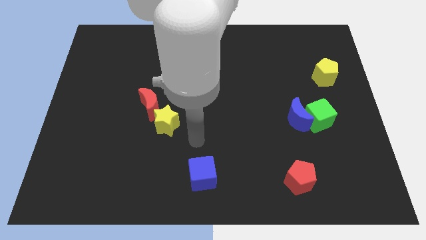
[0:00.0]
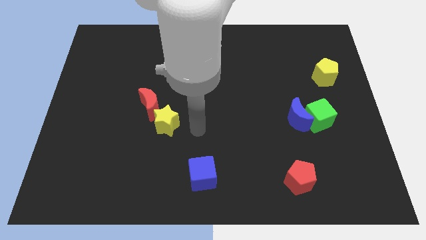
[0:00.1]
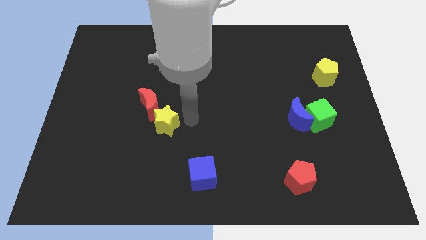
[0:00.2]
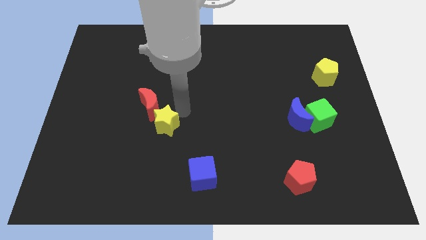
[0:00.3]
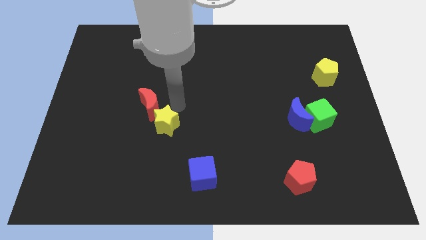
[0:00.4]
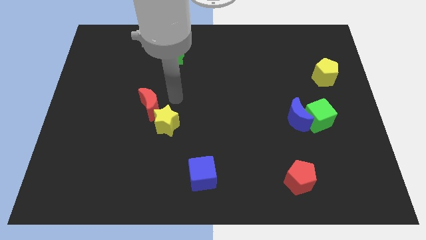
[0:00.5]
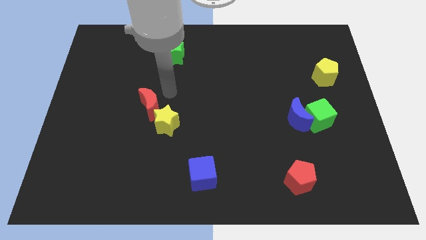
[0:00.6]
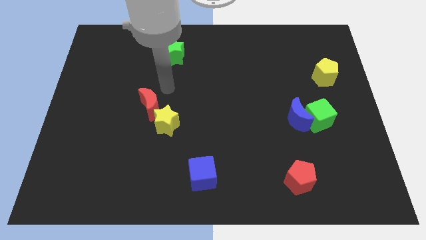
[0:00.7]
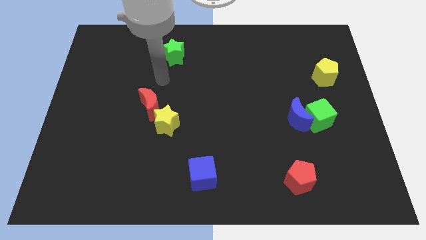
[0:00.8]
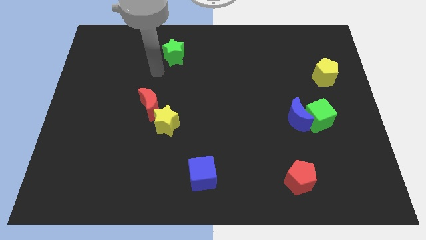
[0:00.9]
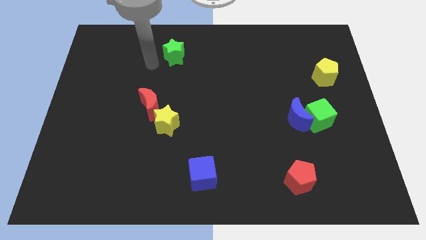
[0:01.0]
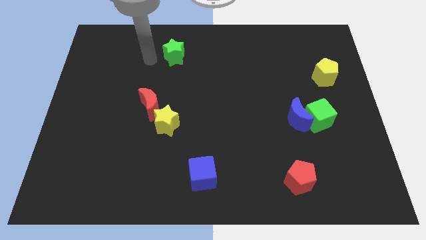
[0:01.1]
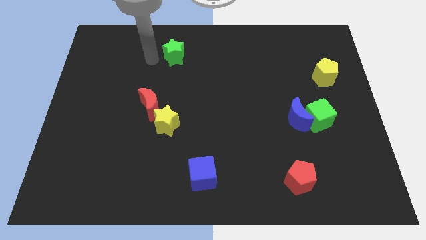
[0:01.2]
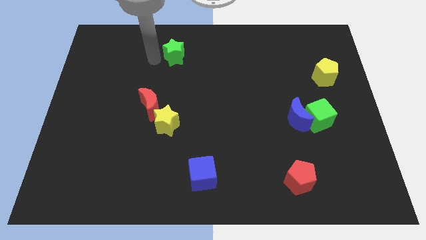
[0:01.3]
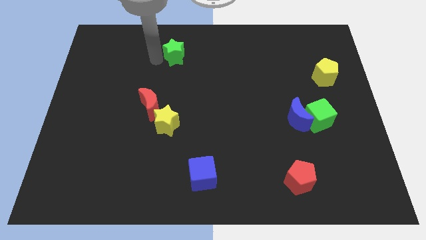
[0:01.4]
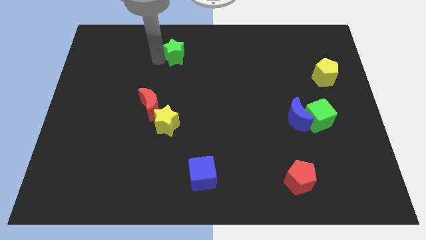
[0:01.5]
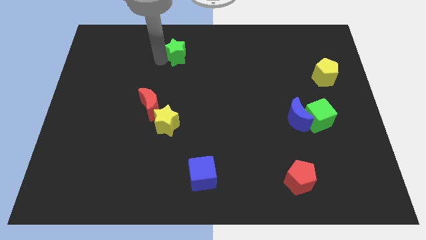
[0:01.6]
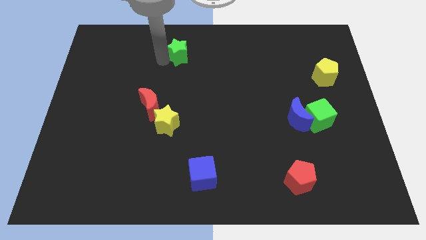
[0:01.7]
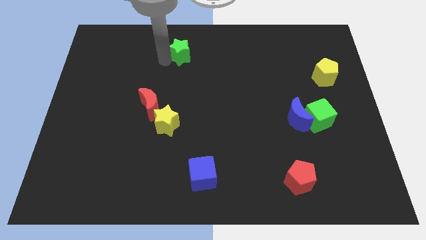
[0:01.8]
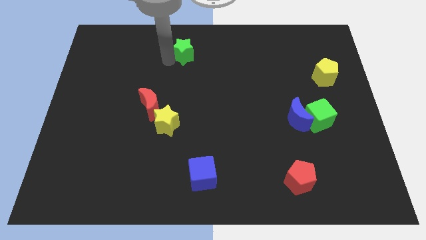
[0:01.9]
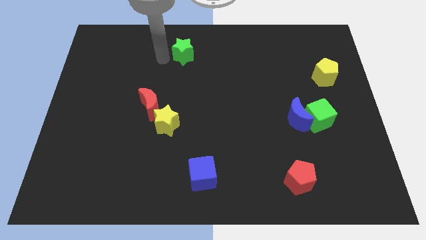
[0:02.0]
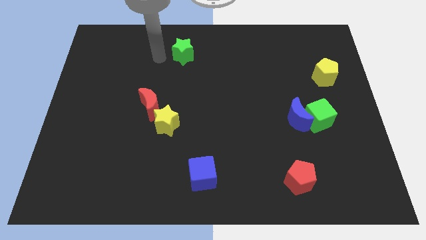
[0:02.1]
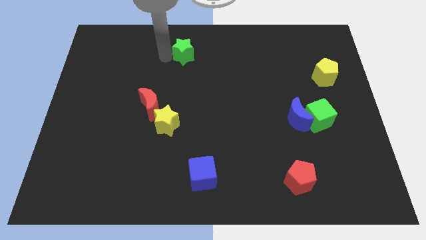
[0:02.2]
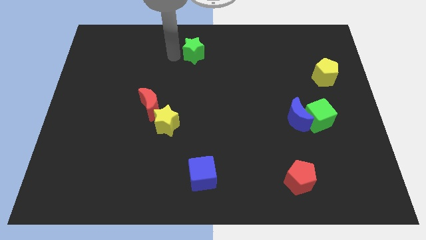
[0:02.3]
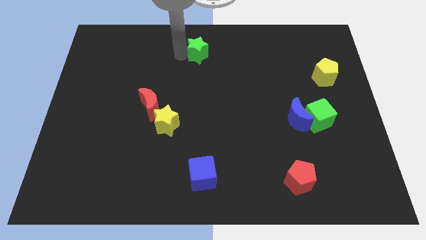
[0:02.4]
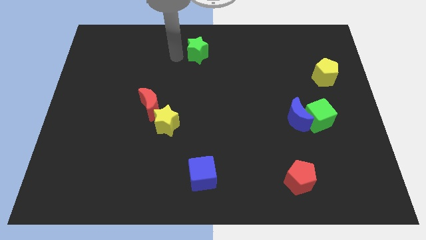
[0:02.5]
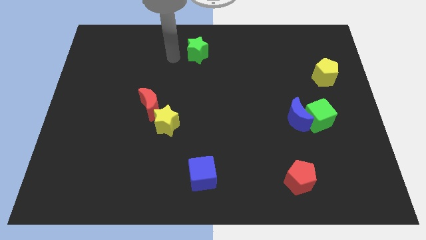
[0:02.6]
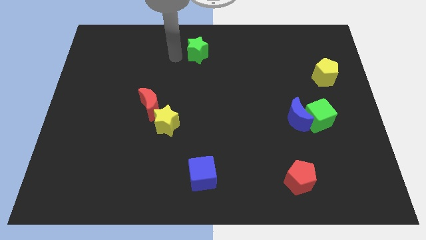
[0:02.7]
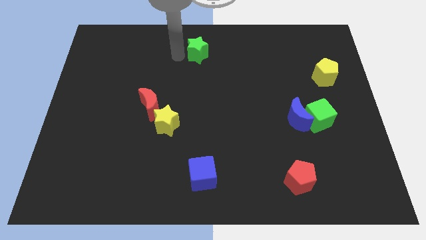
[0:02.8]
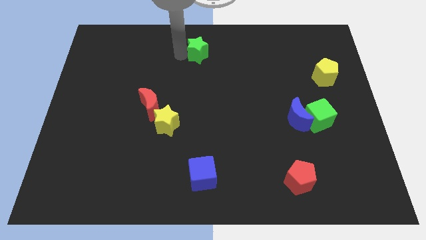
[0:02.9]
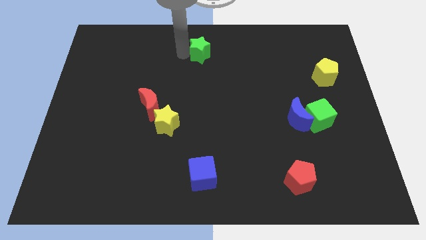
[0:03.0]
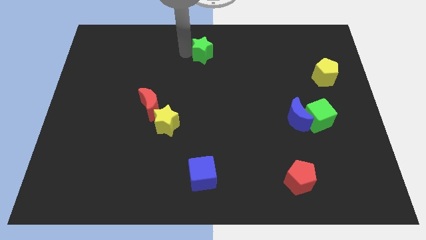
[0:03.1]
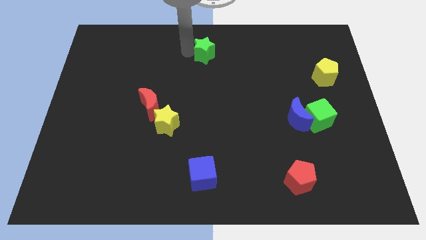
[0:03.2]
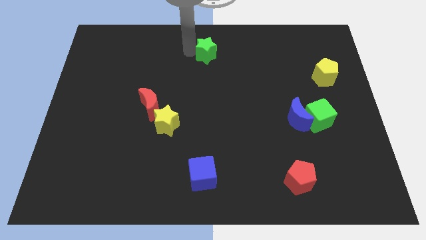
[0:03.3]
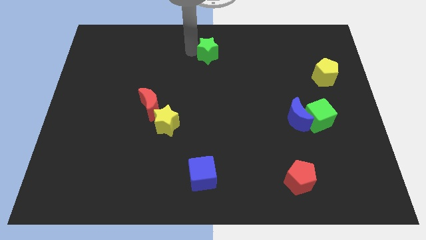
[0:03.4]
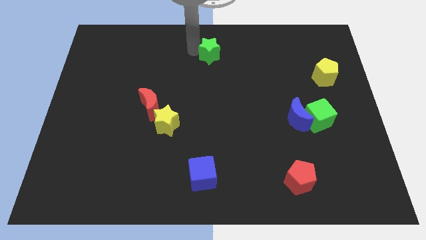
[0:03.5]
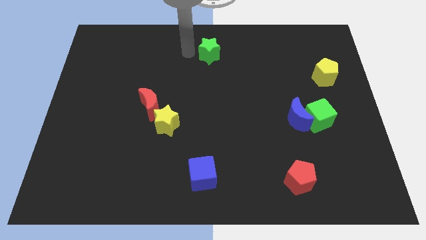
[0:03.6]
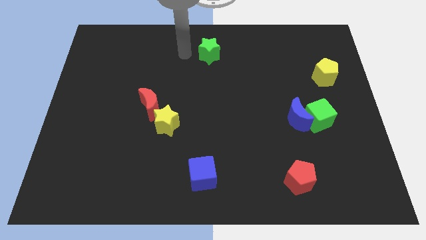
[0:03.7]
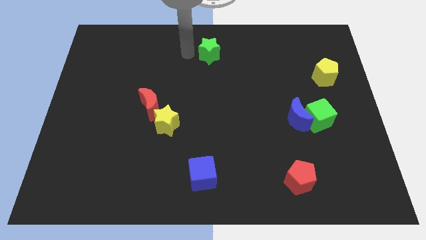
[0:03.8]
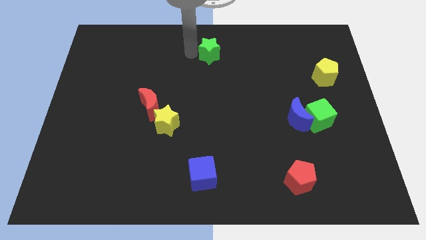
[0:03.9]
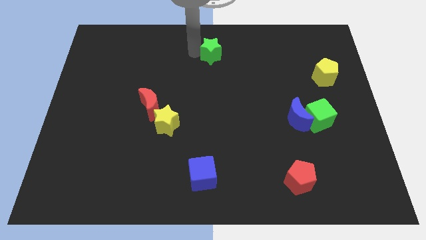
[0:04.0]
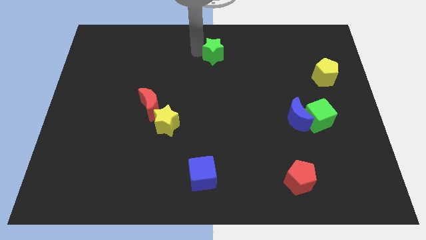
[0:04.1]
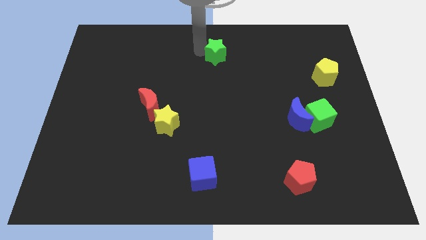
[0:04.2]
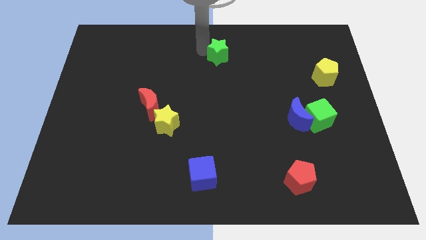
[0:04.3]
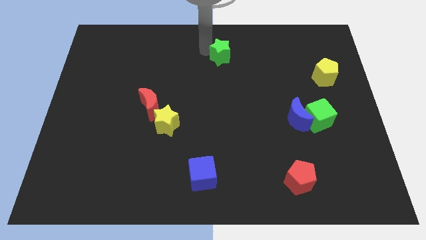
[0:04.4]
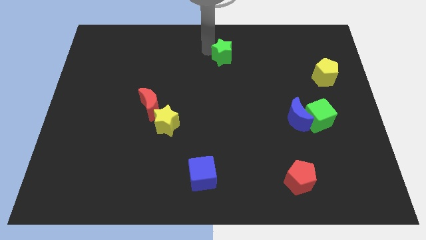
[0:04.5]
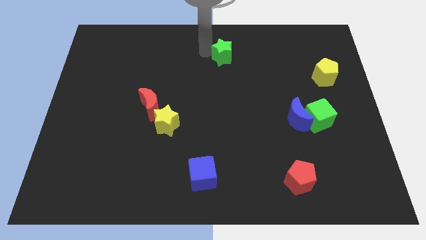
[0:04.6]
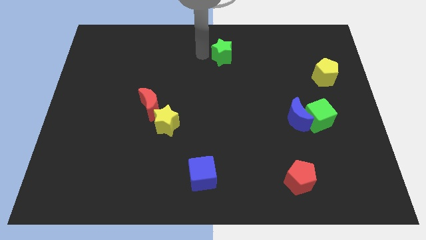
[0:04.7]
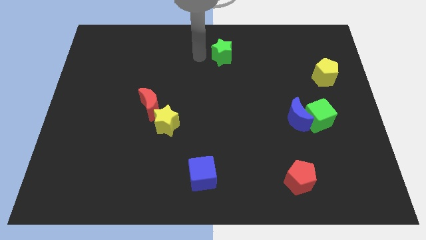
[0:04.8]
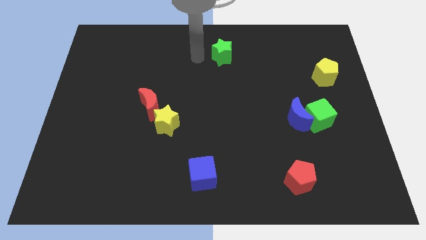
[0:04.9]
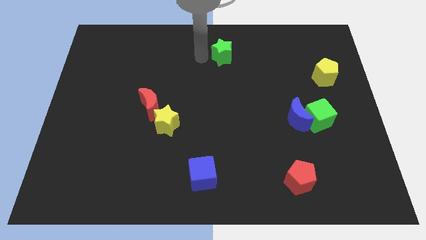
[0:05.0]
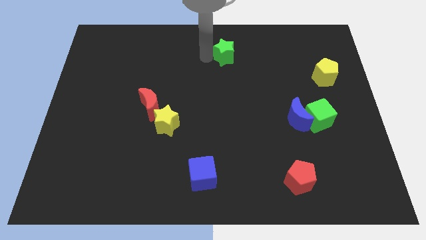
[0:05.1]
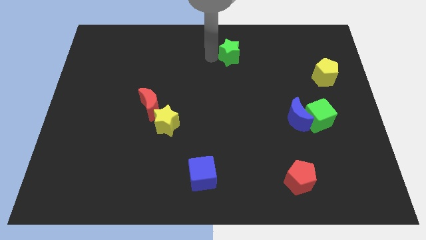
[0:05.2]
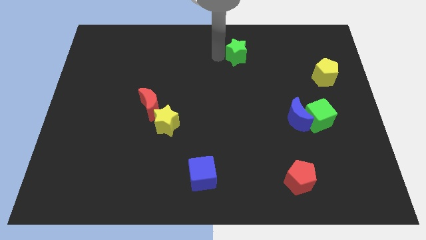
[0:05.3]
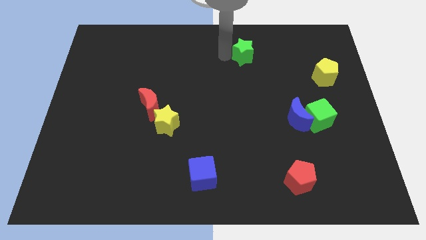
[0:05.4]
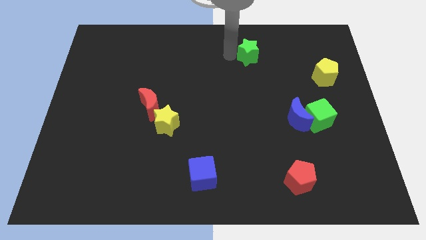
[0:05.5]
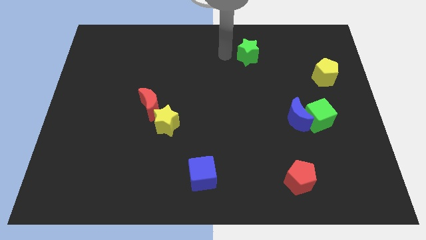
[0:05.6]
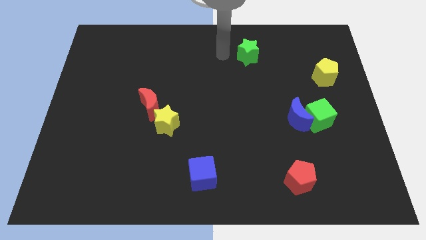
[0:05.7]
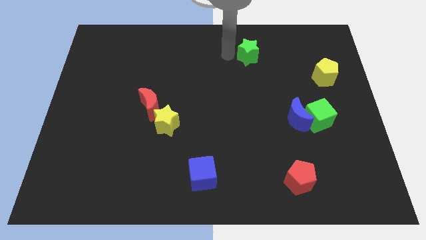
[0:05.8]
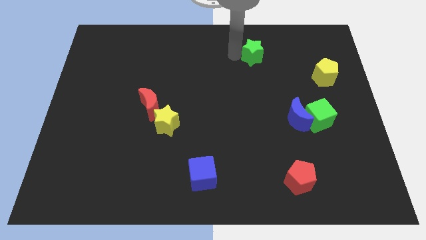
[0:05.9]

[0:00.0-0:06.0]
slide the green star to the right

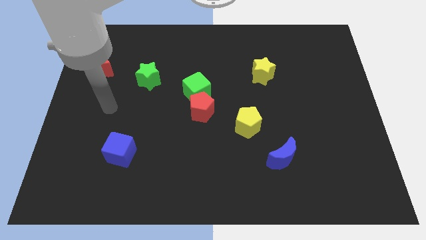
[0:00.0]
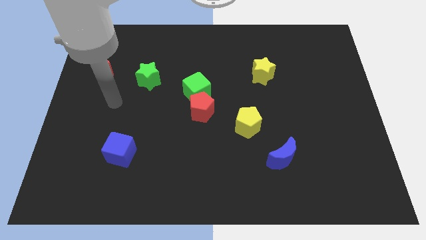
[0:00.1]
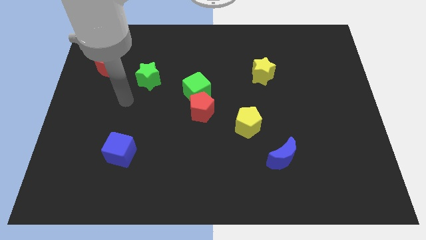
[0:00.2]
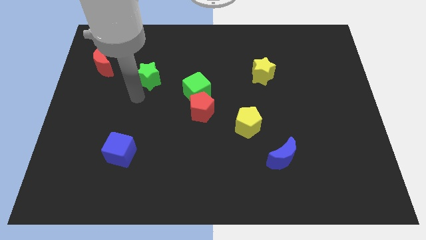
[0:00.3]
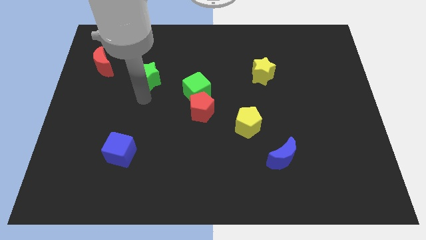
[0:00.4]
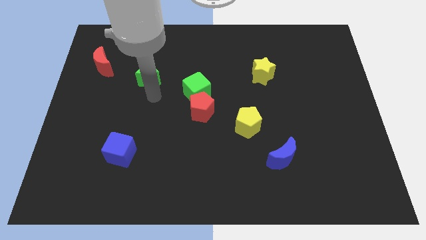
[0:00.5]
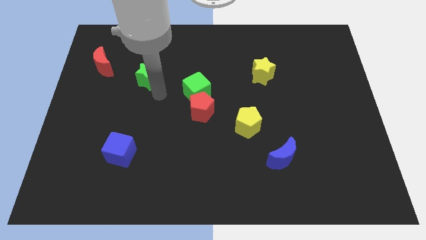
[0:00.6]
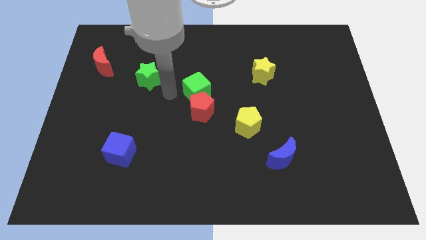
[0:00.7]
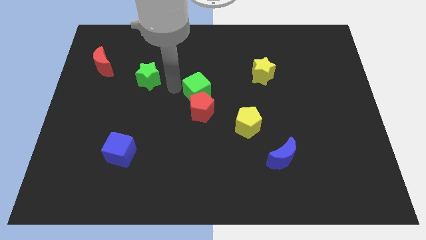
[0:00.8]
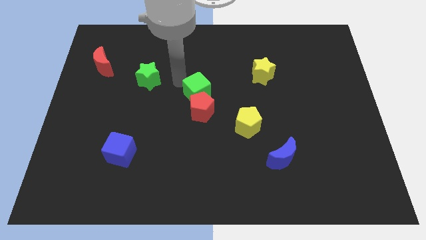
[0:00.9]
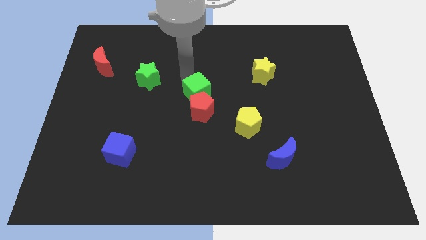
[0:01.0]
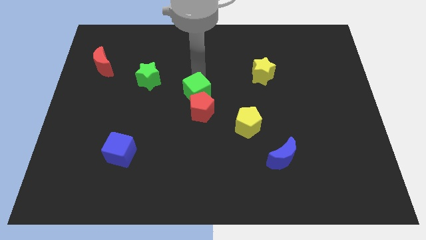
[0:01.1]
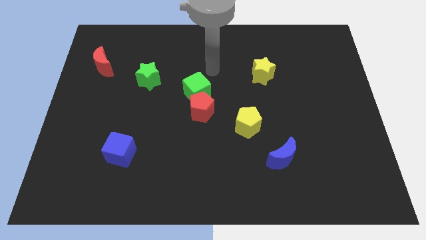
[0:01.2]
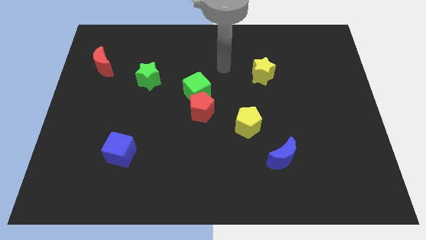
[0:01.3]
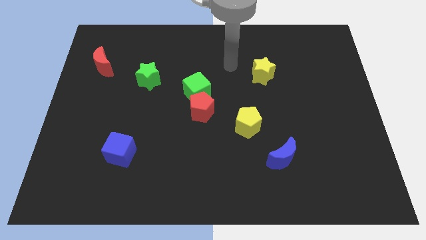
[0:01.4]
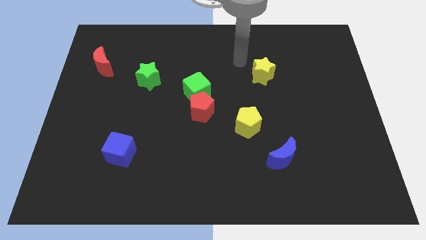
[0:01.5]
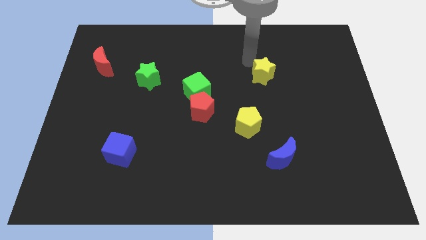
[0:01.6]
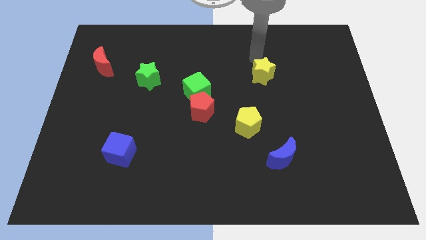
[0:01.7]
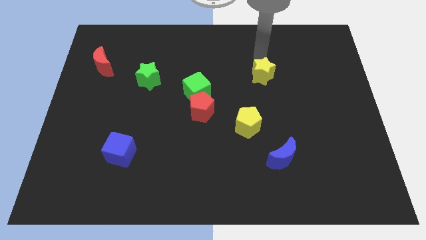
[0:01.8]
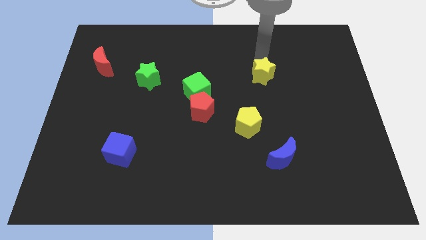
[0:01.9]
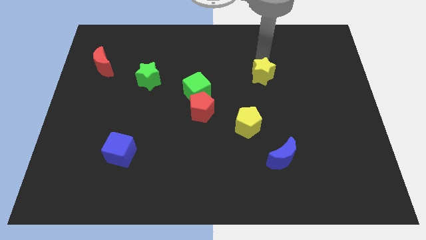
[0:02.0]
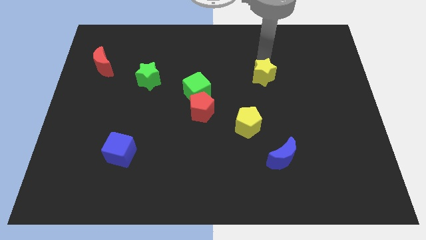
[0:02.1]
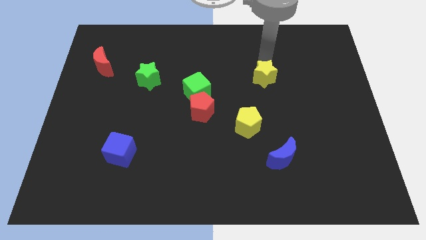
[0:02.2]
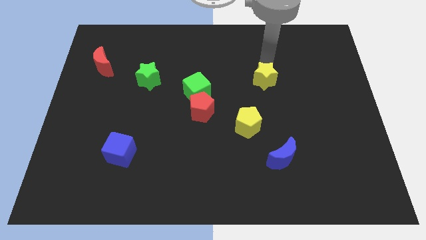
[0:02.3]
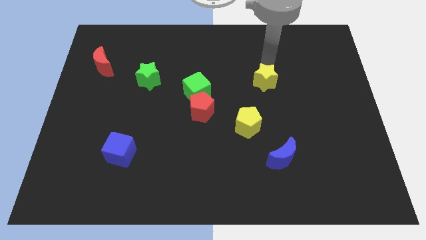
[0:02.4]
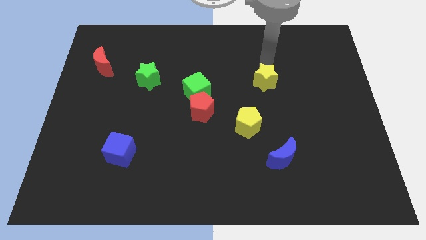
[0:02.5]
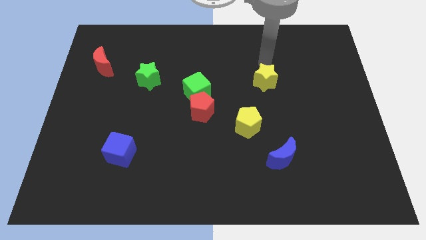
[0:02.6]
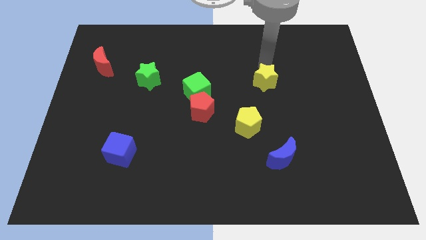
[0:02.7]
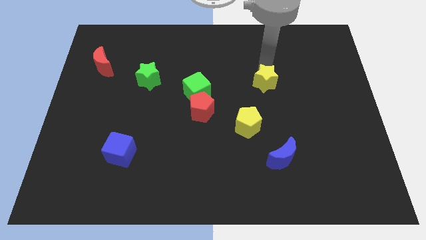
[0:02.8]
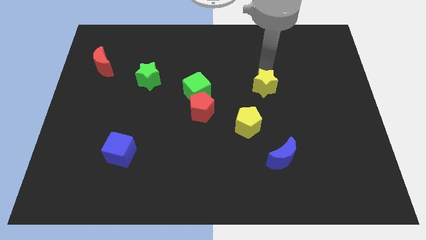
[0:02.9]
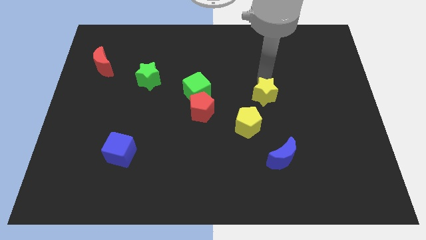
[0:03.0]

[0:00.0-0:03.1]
slide the yellow star down slightly
